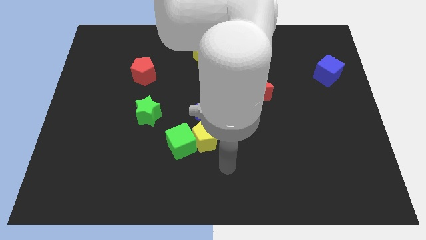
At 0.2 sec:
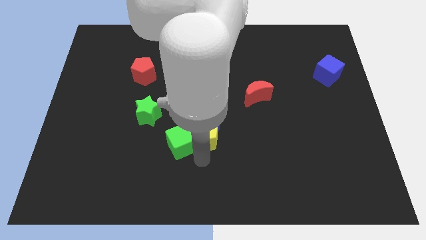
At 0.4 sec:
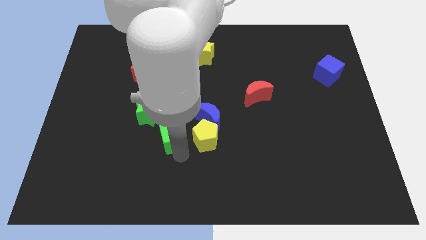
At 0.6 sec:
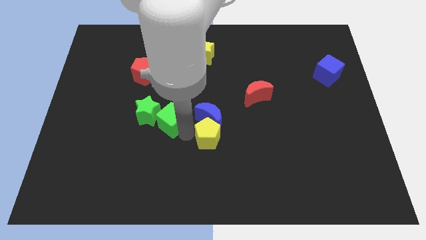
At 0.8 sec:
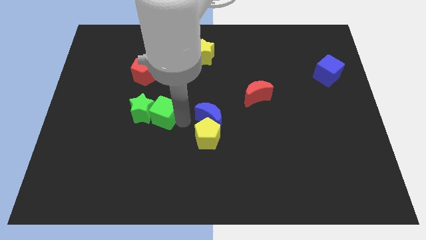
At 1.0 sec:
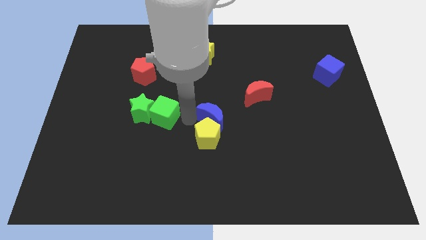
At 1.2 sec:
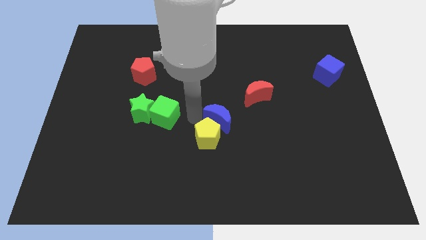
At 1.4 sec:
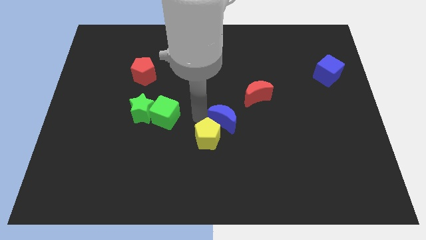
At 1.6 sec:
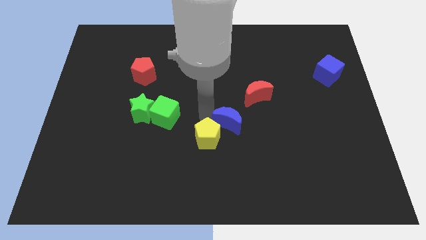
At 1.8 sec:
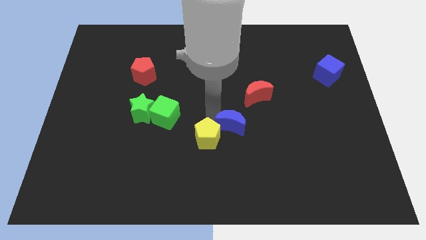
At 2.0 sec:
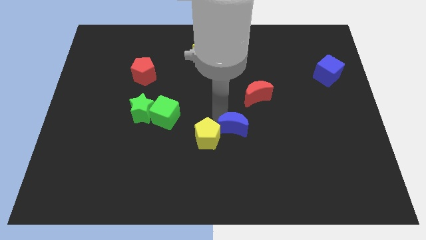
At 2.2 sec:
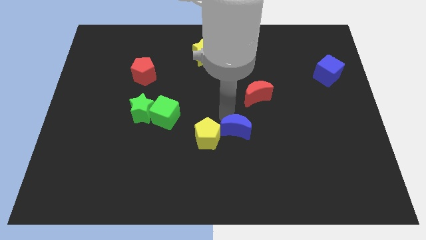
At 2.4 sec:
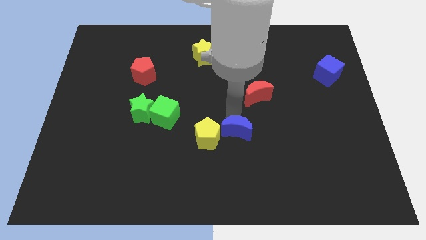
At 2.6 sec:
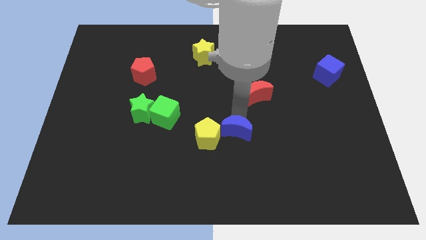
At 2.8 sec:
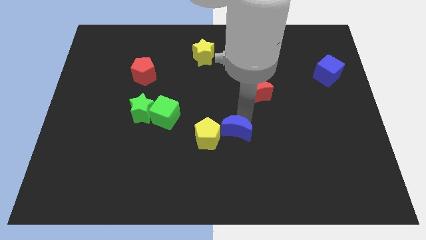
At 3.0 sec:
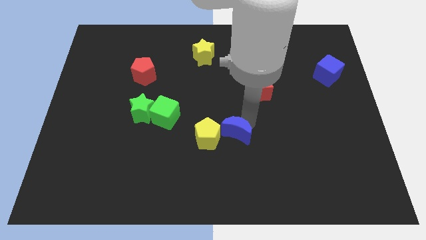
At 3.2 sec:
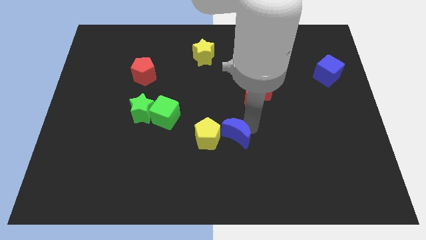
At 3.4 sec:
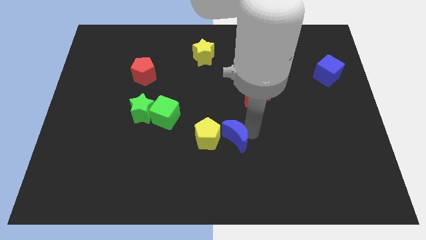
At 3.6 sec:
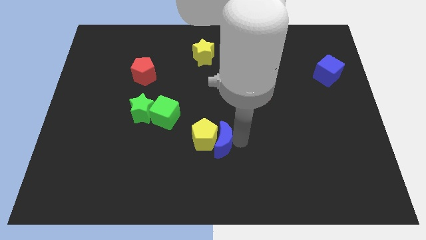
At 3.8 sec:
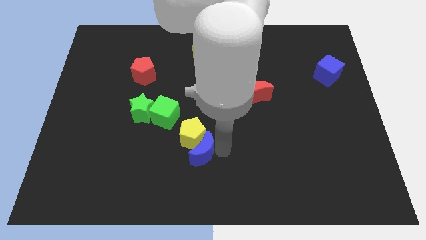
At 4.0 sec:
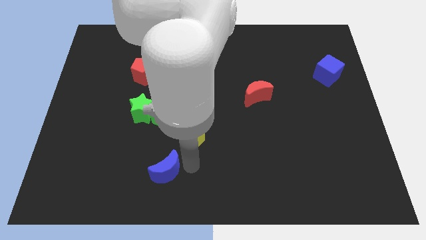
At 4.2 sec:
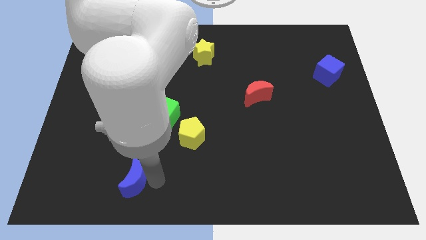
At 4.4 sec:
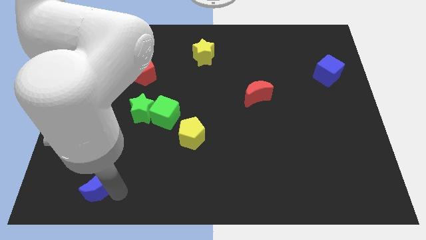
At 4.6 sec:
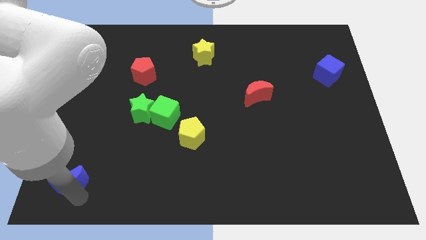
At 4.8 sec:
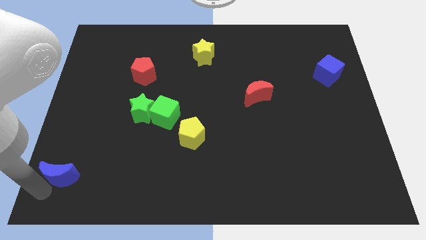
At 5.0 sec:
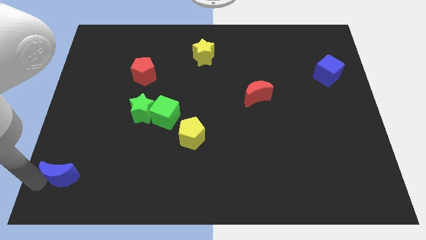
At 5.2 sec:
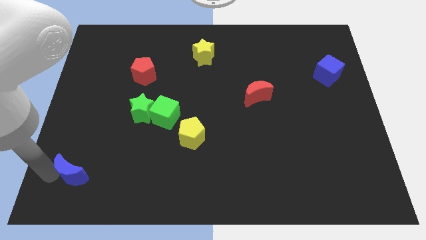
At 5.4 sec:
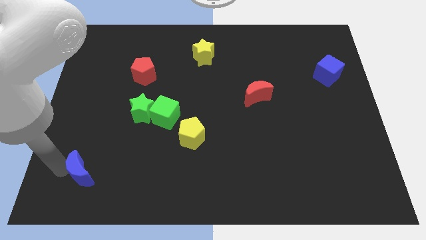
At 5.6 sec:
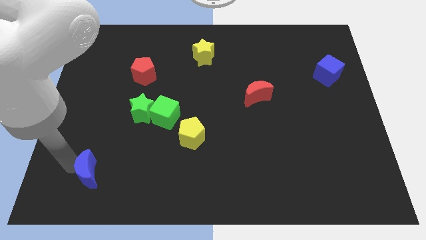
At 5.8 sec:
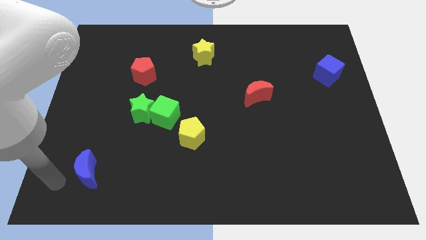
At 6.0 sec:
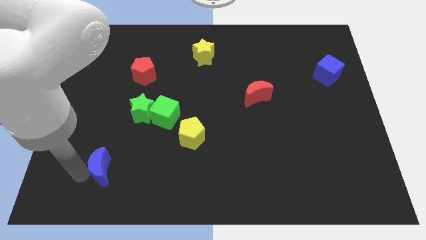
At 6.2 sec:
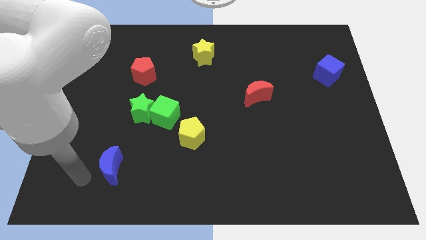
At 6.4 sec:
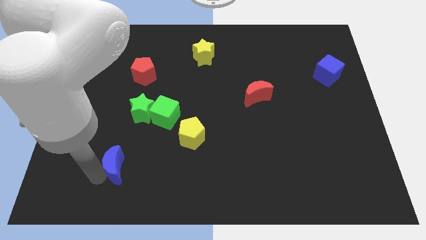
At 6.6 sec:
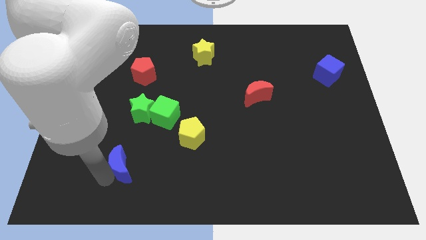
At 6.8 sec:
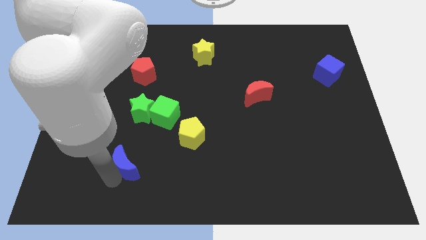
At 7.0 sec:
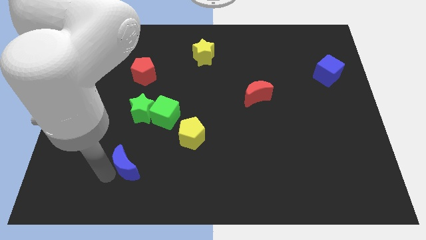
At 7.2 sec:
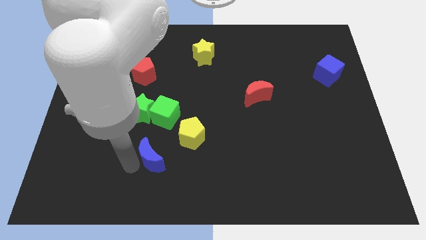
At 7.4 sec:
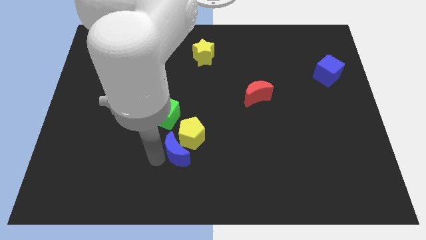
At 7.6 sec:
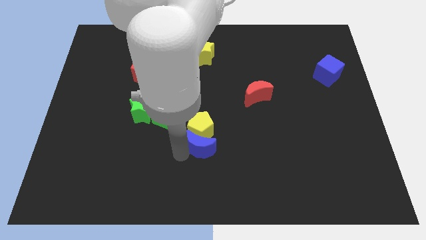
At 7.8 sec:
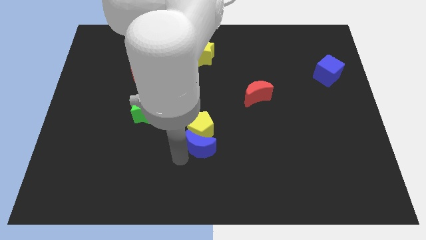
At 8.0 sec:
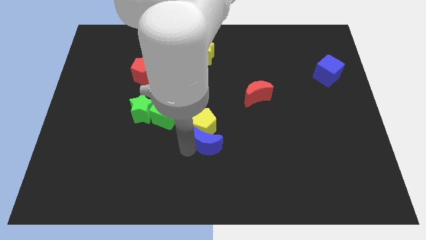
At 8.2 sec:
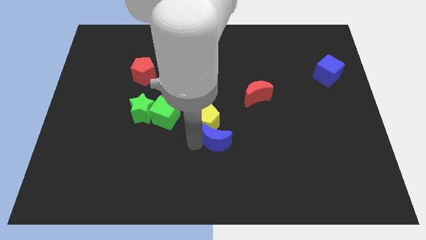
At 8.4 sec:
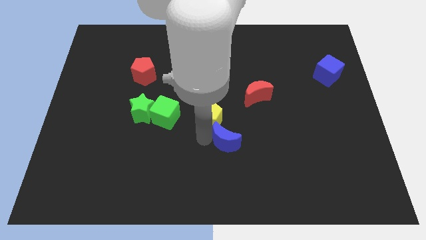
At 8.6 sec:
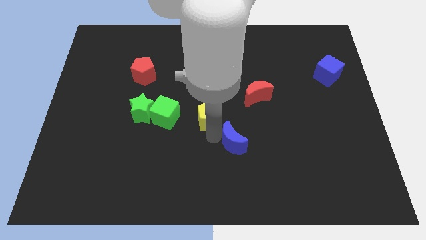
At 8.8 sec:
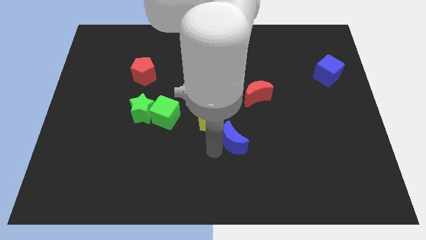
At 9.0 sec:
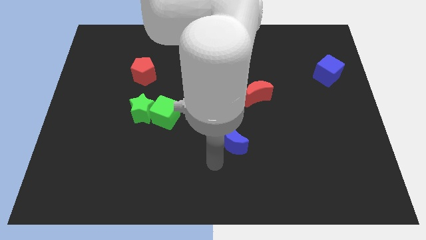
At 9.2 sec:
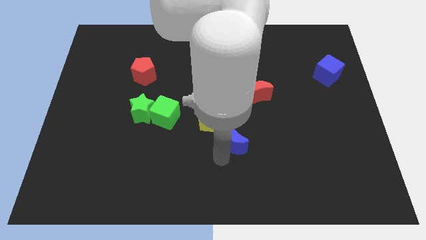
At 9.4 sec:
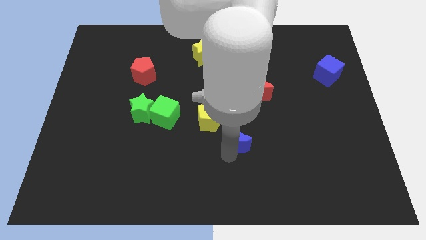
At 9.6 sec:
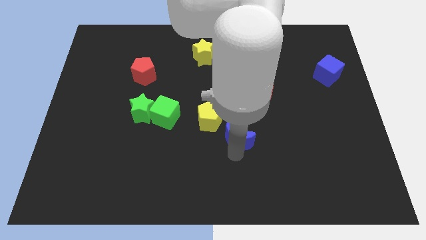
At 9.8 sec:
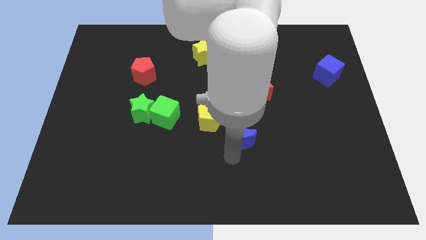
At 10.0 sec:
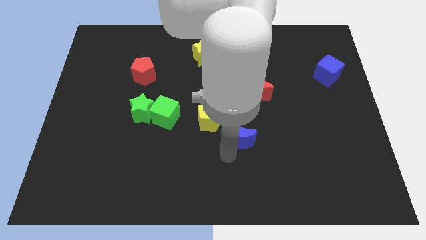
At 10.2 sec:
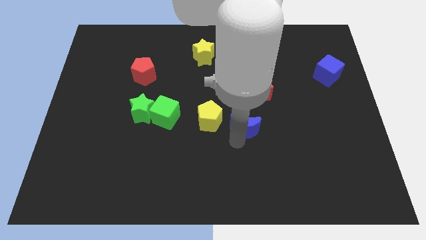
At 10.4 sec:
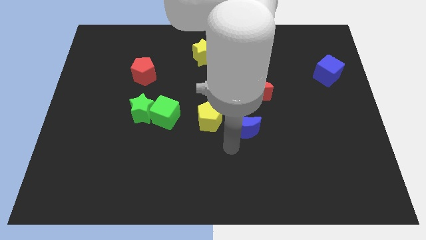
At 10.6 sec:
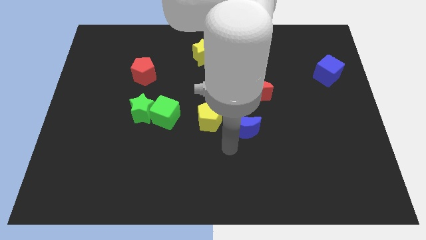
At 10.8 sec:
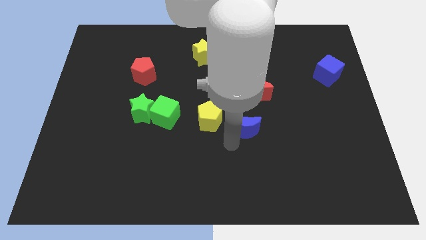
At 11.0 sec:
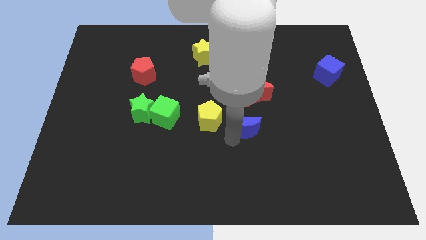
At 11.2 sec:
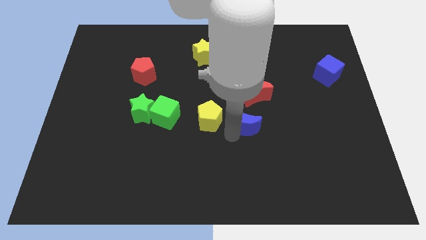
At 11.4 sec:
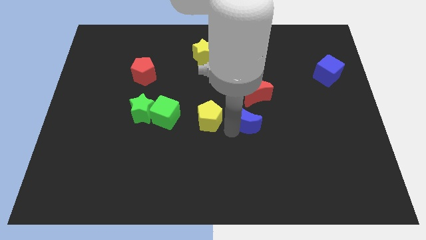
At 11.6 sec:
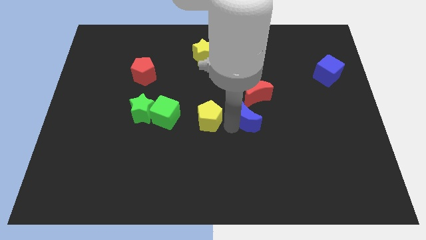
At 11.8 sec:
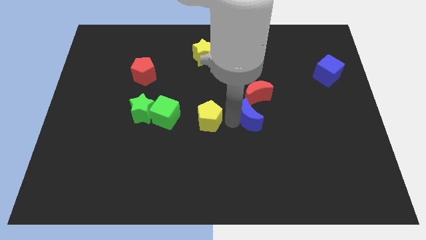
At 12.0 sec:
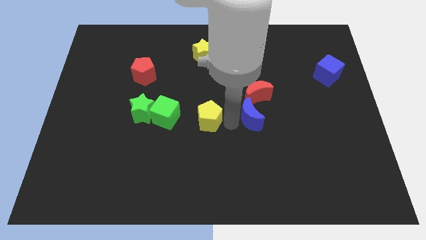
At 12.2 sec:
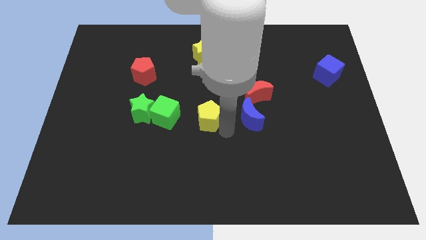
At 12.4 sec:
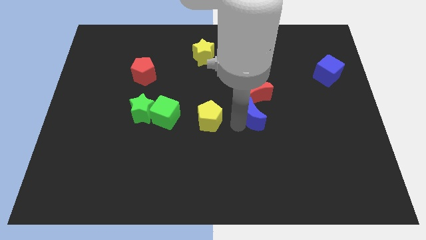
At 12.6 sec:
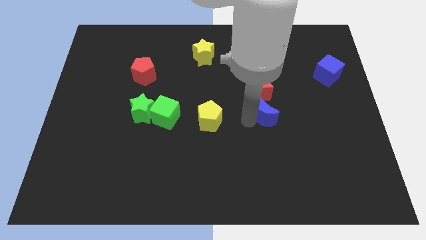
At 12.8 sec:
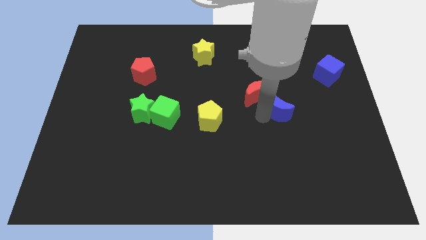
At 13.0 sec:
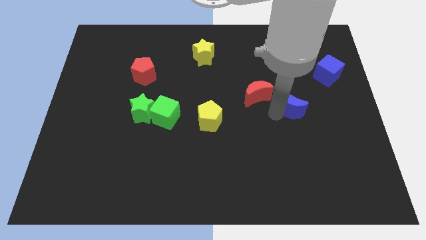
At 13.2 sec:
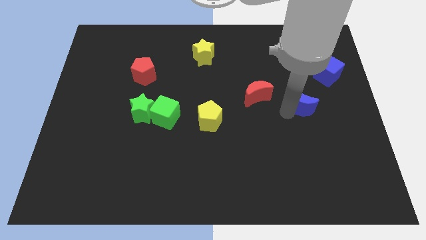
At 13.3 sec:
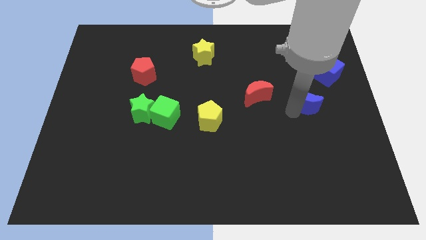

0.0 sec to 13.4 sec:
put the blue moon to the bottom left of the blue cube
